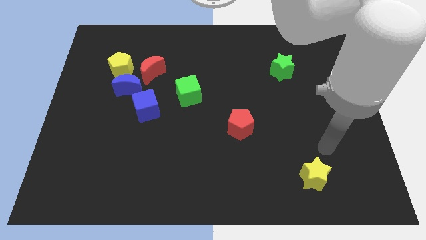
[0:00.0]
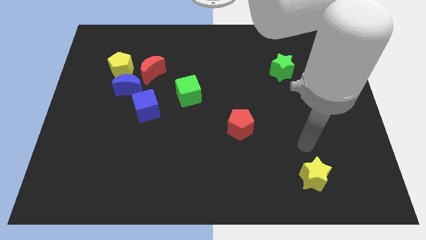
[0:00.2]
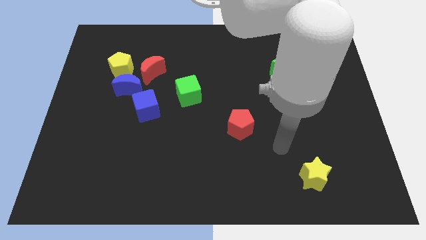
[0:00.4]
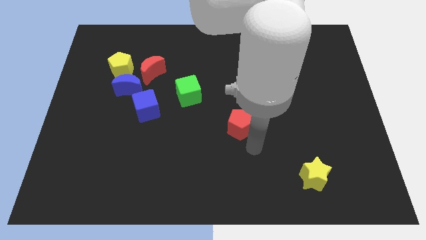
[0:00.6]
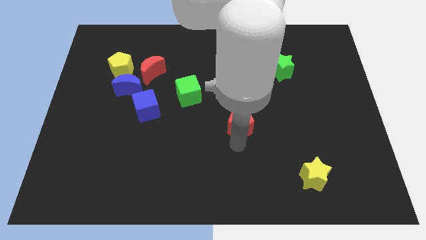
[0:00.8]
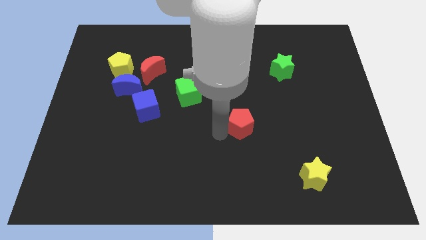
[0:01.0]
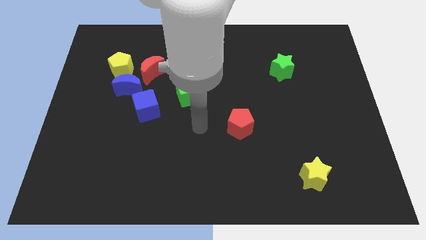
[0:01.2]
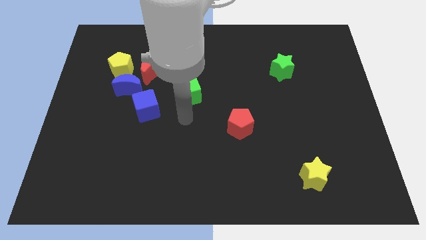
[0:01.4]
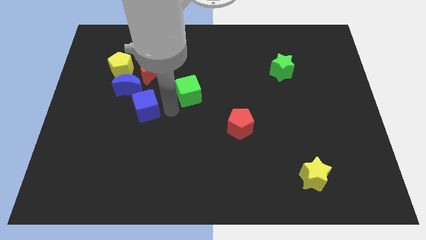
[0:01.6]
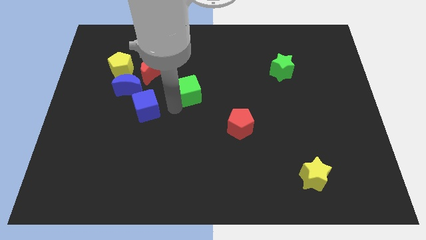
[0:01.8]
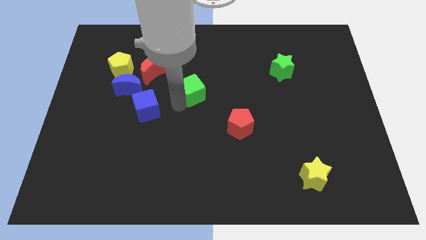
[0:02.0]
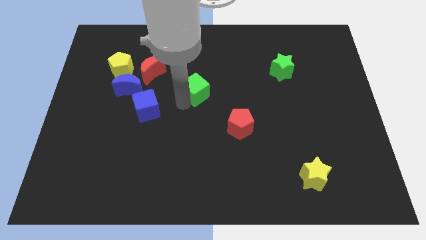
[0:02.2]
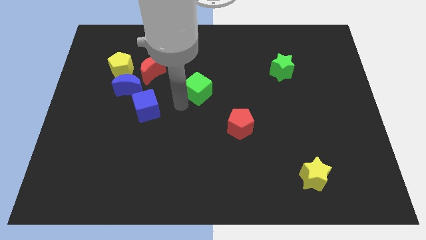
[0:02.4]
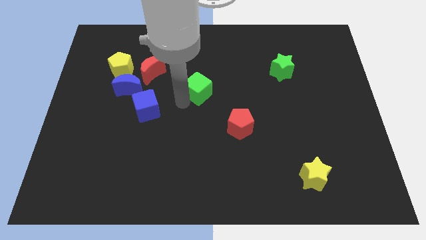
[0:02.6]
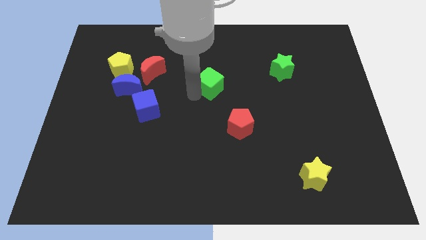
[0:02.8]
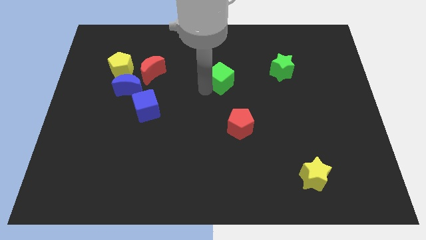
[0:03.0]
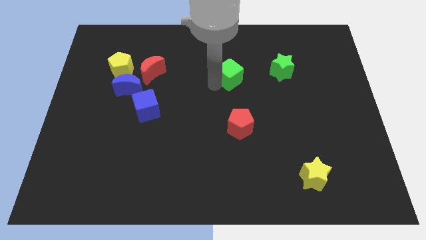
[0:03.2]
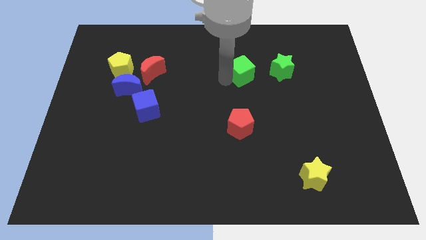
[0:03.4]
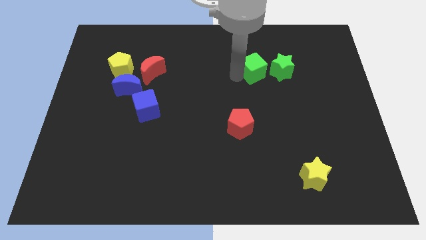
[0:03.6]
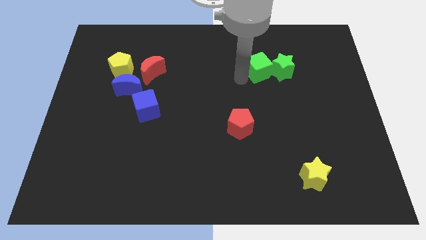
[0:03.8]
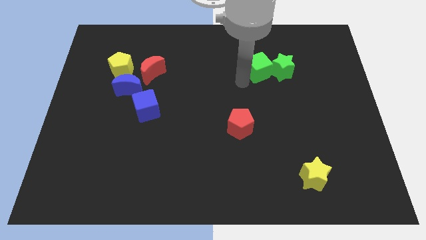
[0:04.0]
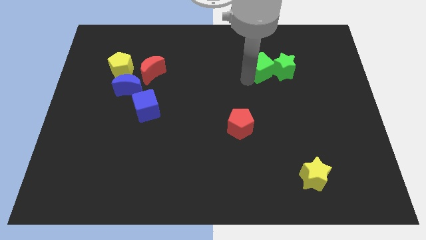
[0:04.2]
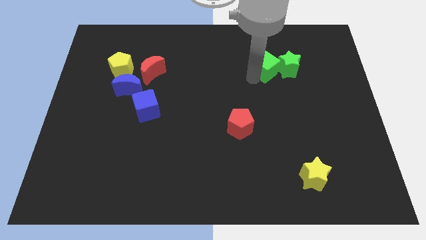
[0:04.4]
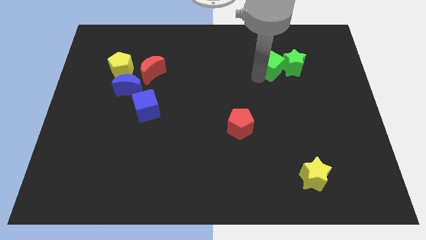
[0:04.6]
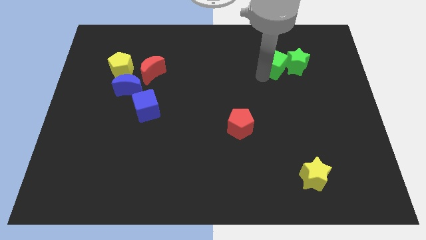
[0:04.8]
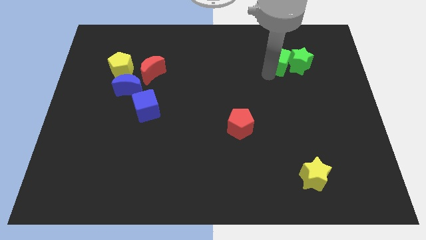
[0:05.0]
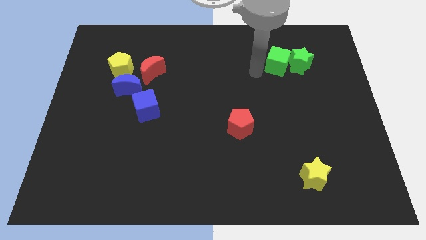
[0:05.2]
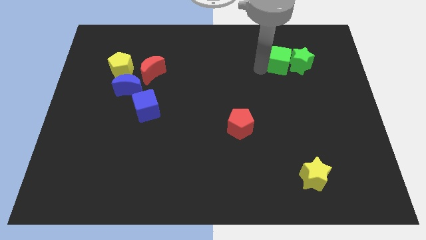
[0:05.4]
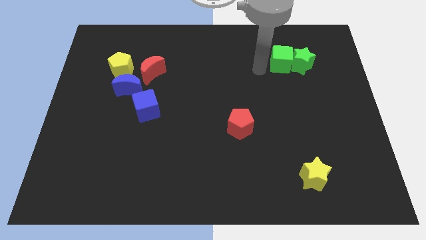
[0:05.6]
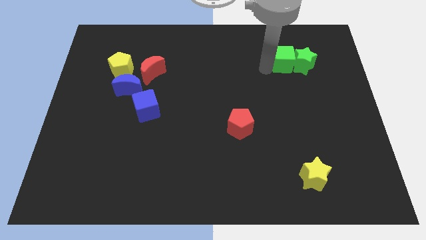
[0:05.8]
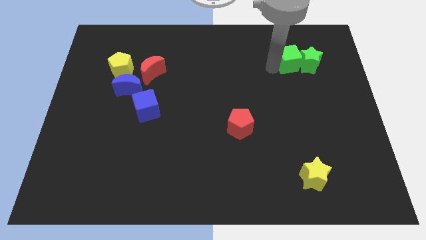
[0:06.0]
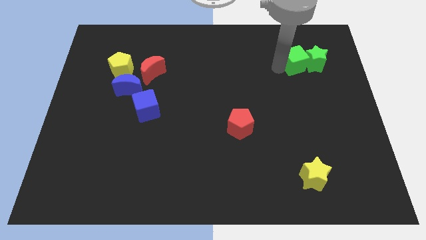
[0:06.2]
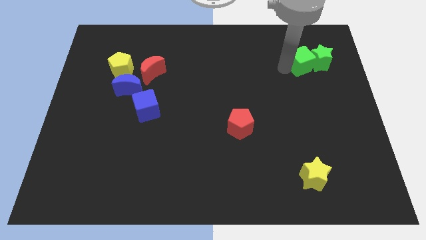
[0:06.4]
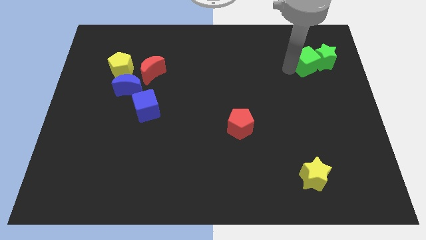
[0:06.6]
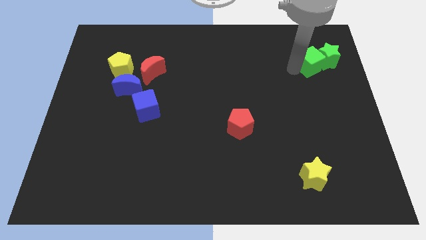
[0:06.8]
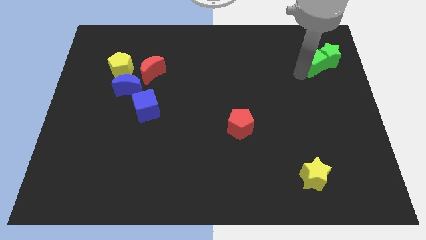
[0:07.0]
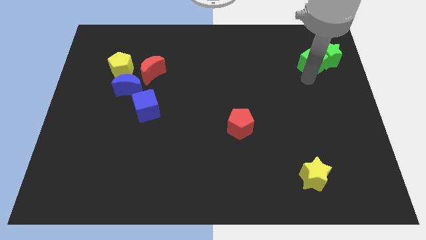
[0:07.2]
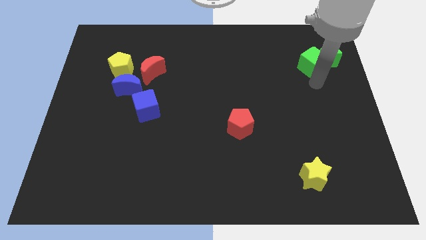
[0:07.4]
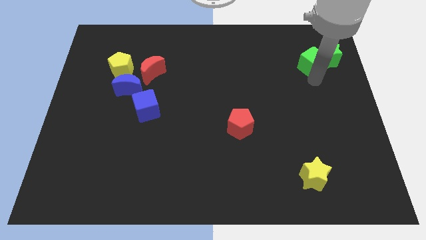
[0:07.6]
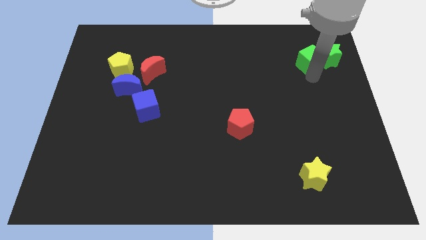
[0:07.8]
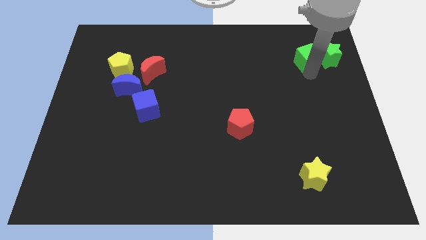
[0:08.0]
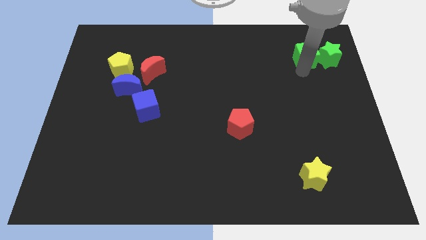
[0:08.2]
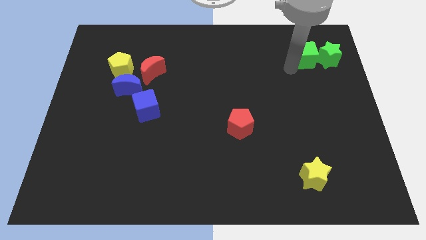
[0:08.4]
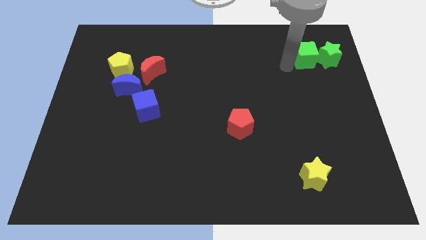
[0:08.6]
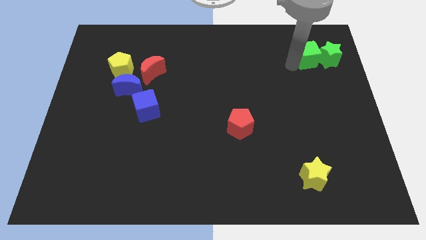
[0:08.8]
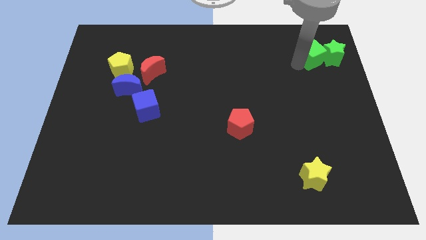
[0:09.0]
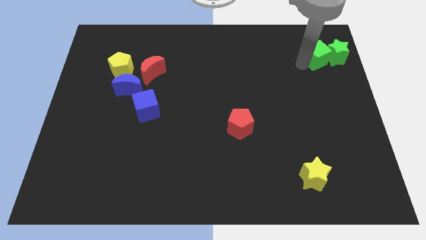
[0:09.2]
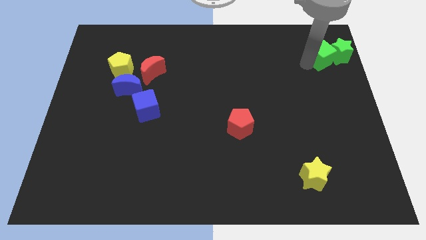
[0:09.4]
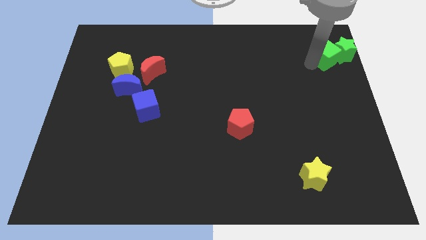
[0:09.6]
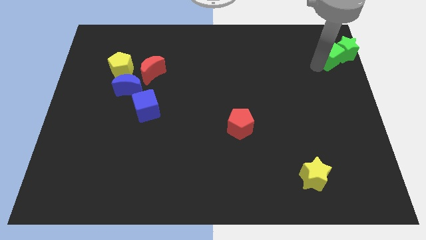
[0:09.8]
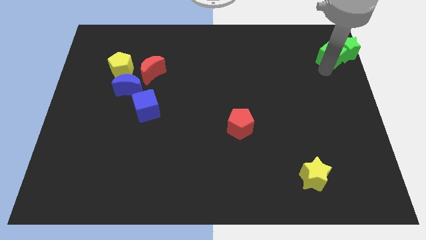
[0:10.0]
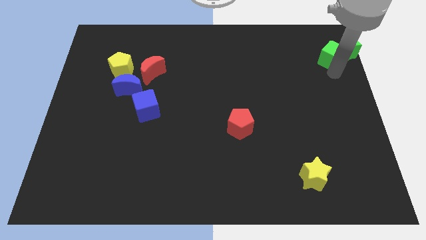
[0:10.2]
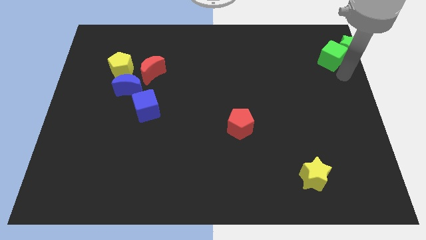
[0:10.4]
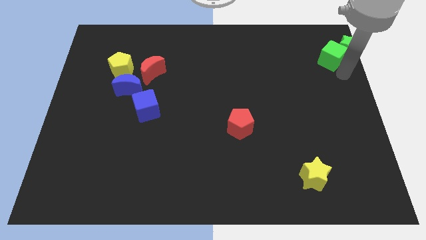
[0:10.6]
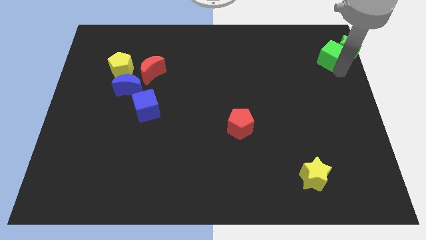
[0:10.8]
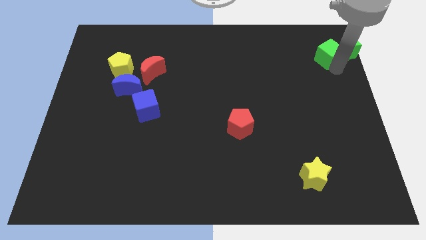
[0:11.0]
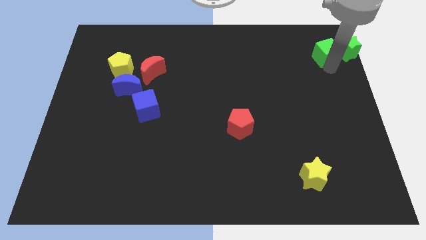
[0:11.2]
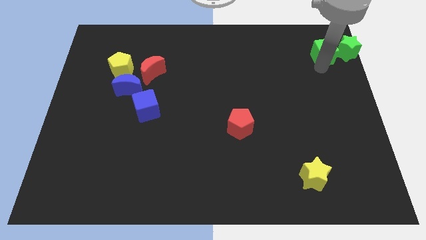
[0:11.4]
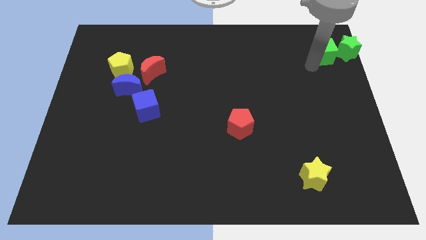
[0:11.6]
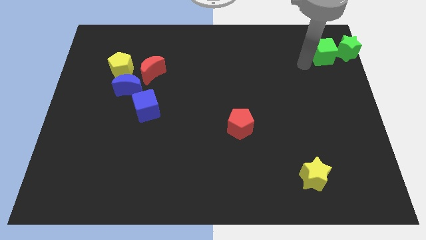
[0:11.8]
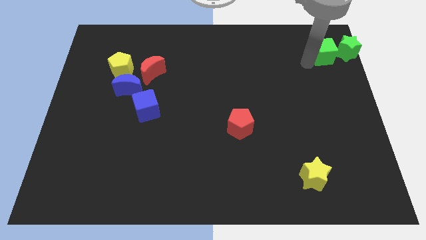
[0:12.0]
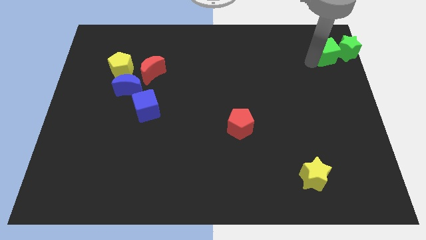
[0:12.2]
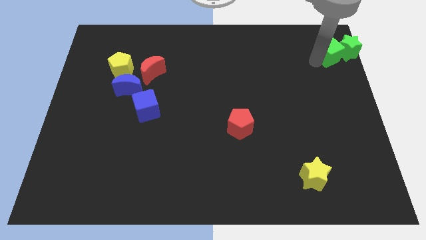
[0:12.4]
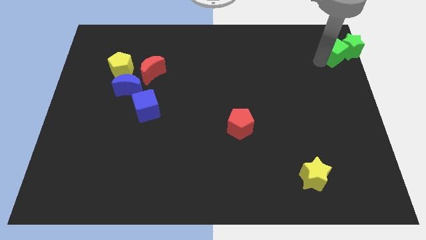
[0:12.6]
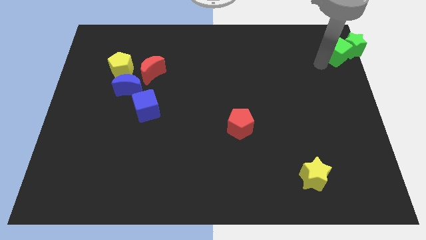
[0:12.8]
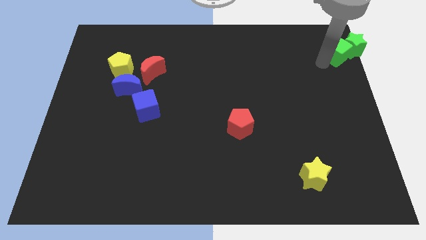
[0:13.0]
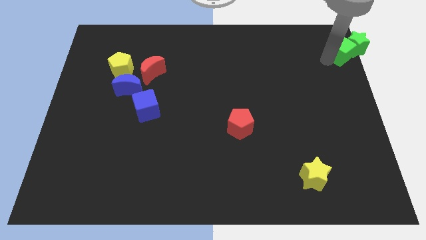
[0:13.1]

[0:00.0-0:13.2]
slide the green cube to the upper right corner

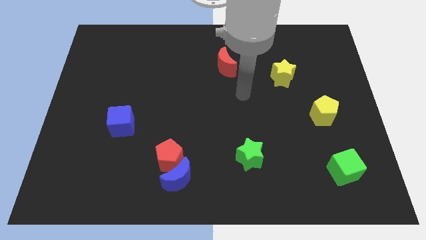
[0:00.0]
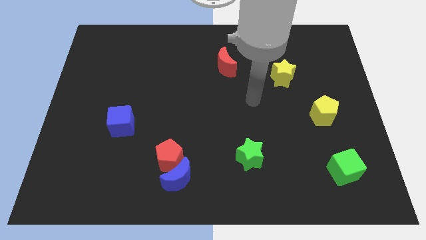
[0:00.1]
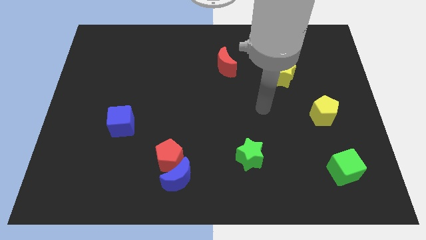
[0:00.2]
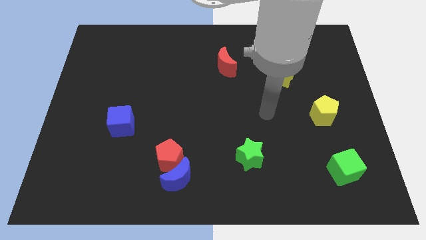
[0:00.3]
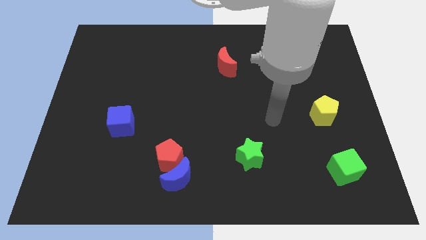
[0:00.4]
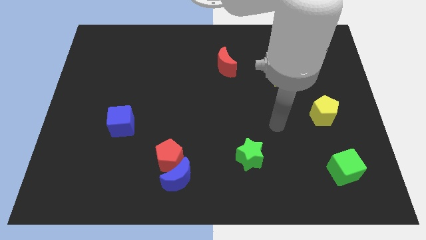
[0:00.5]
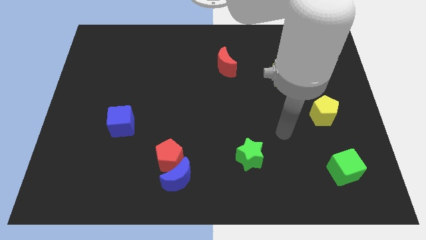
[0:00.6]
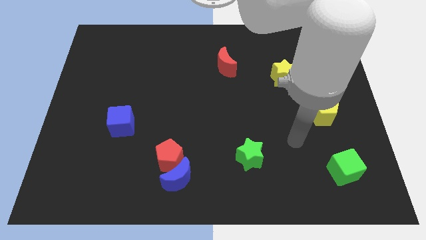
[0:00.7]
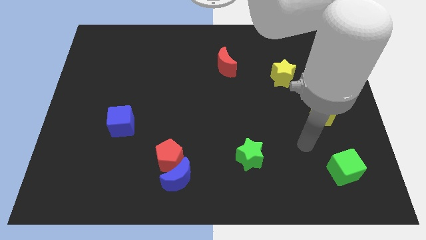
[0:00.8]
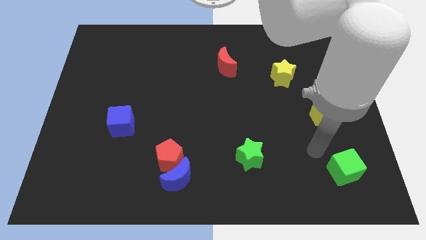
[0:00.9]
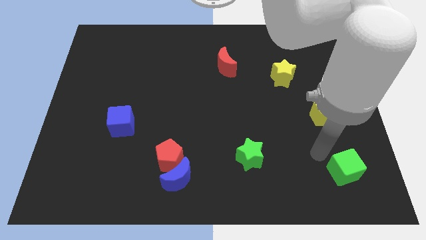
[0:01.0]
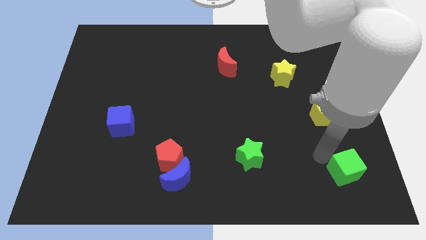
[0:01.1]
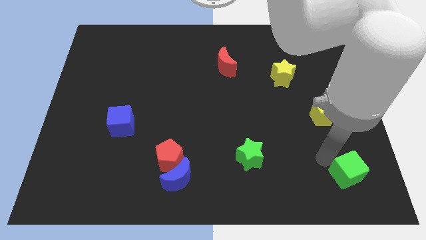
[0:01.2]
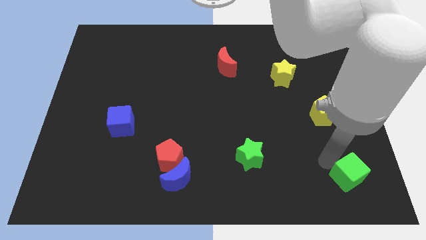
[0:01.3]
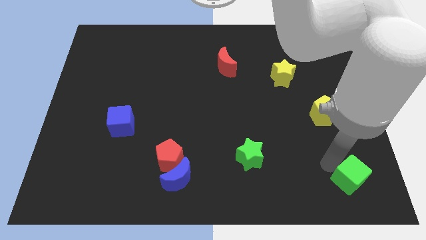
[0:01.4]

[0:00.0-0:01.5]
put the green cube to the bottom right corner
